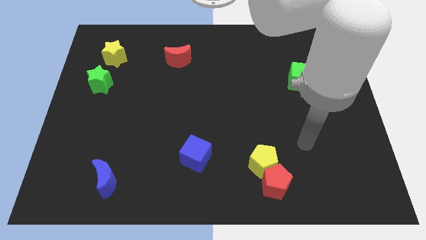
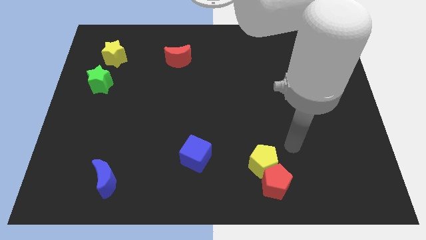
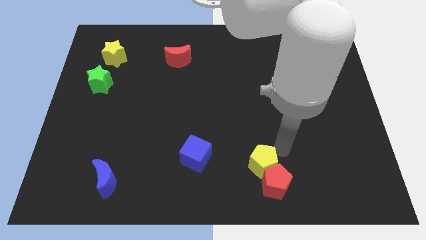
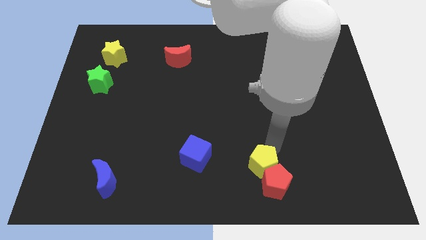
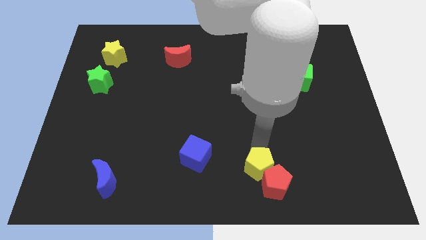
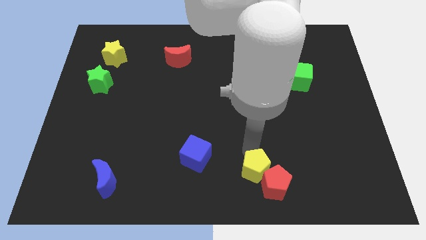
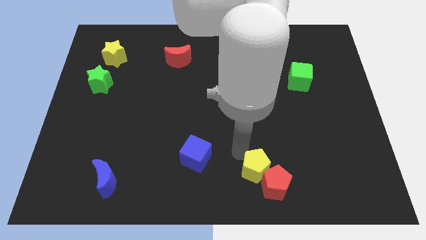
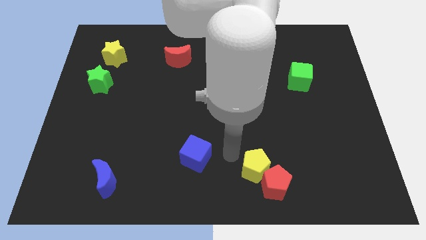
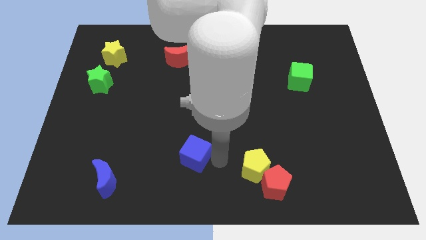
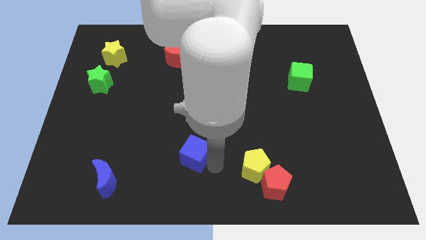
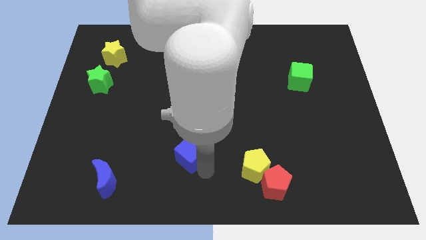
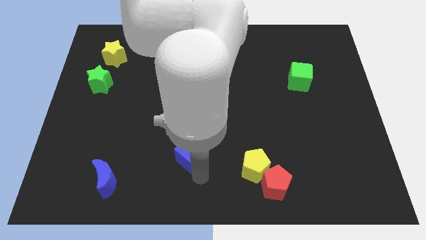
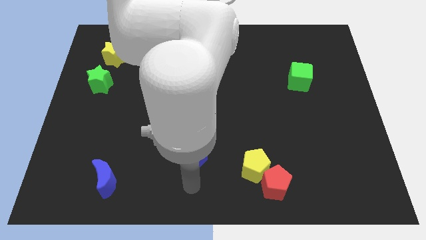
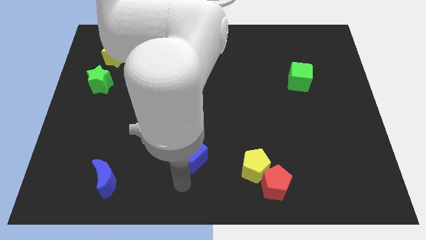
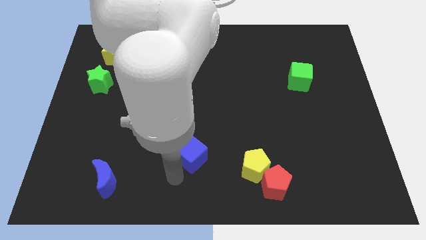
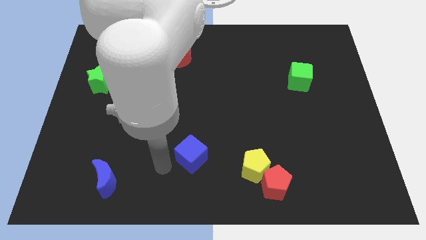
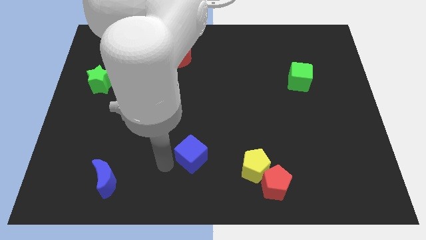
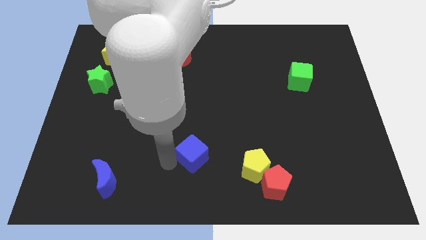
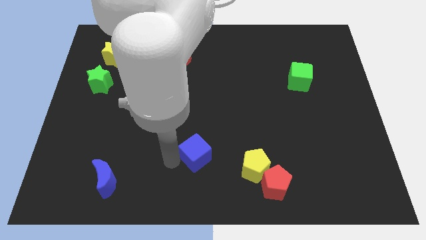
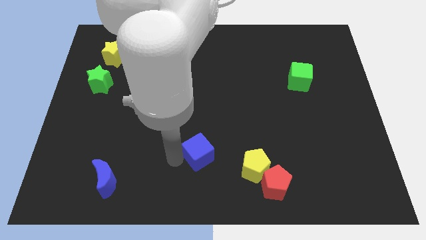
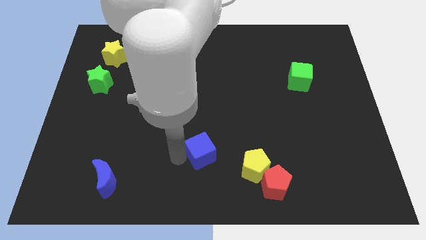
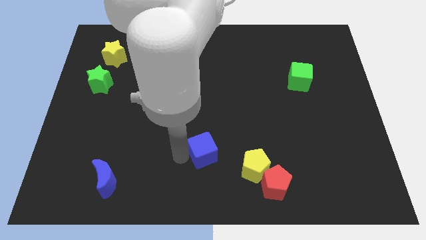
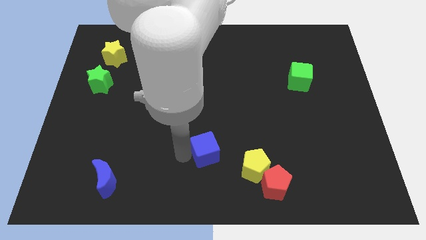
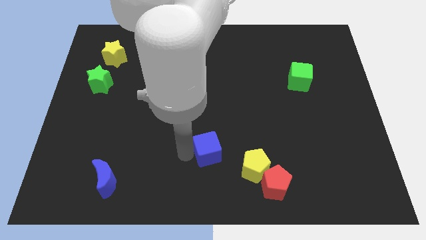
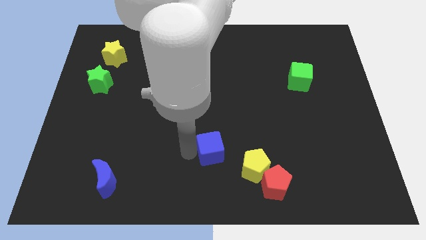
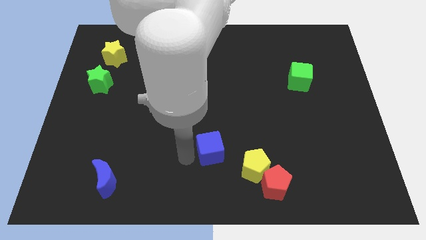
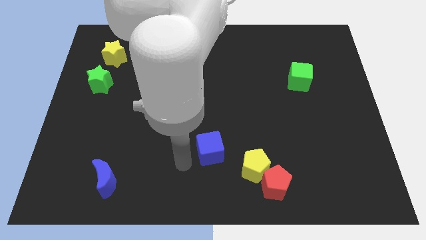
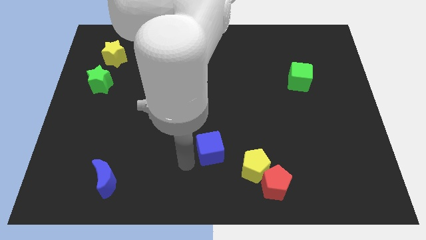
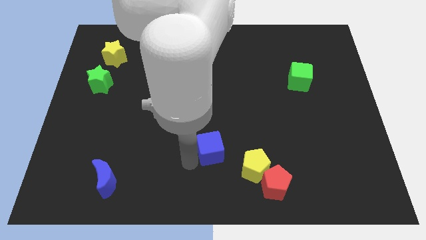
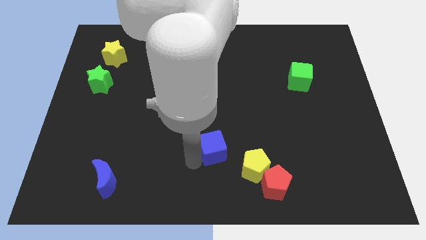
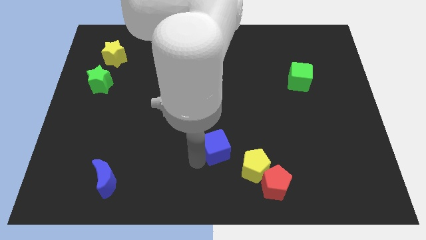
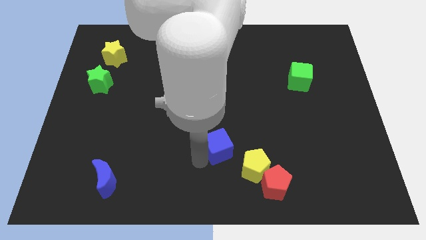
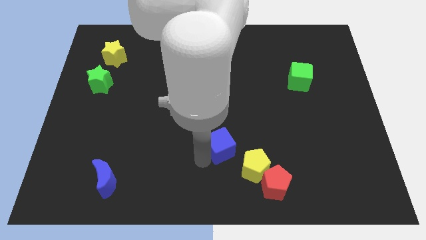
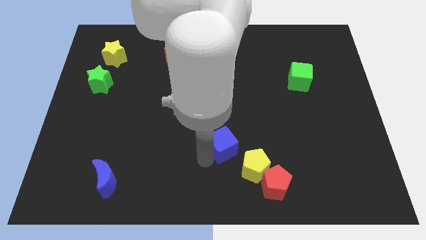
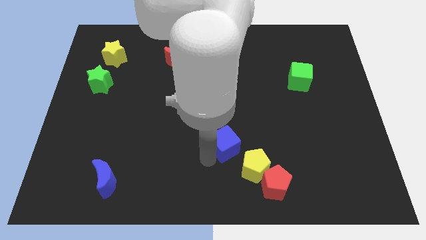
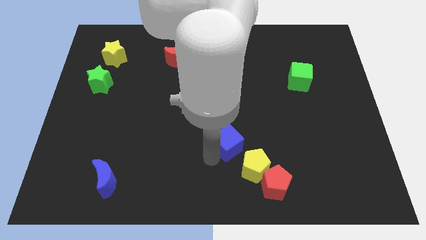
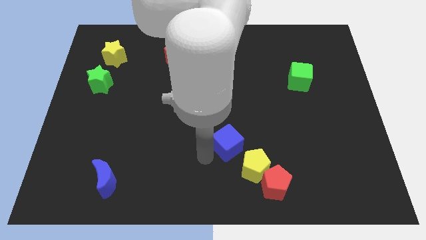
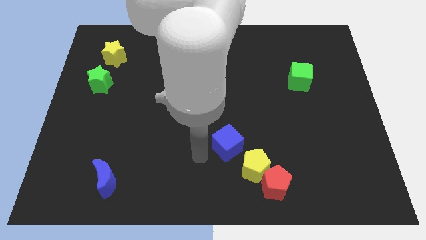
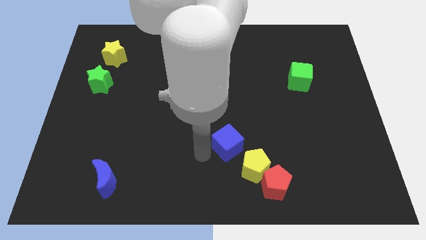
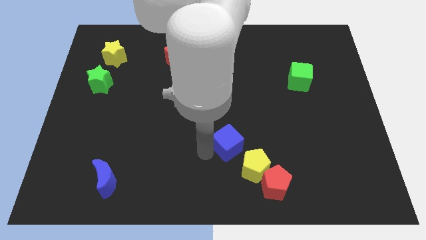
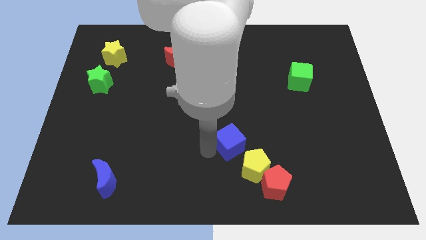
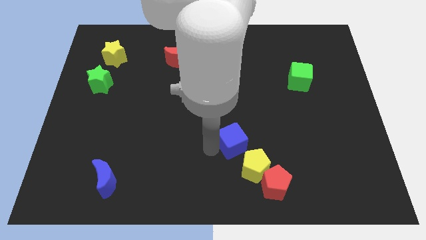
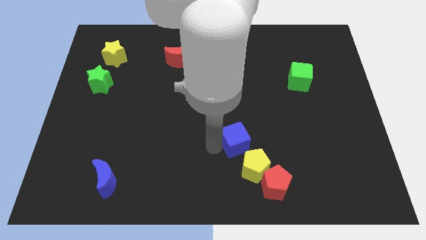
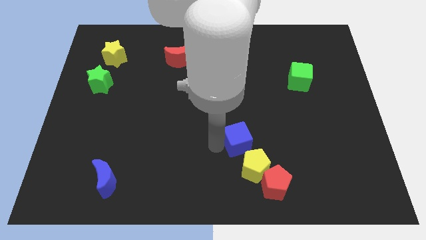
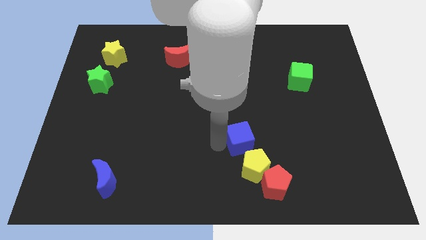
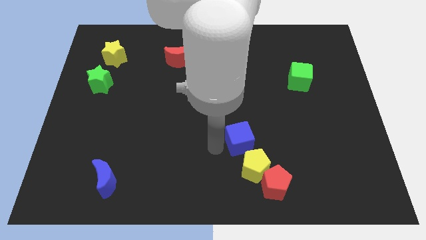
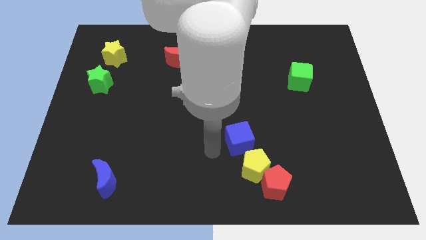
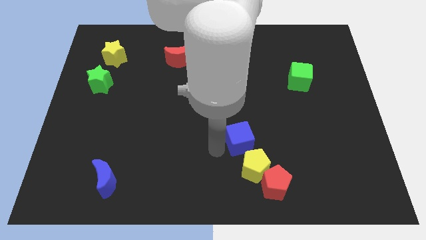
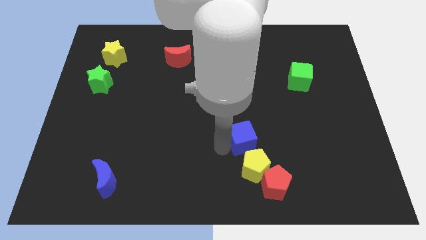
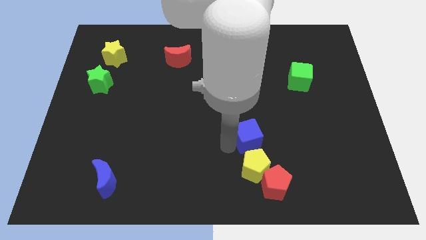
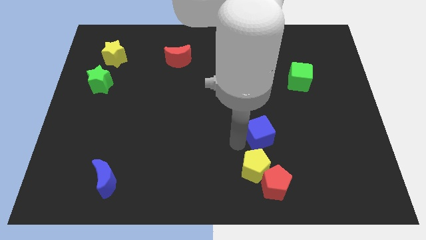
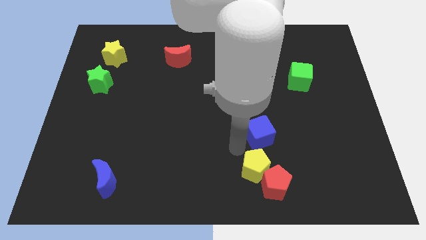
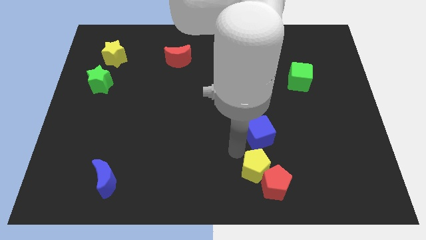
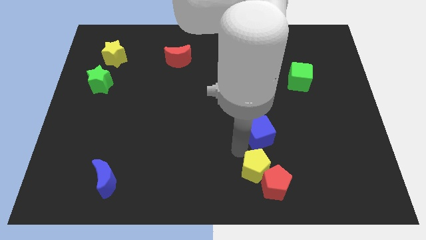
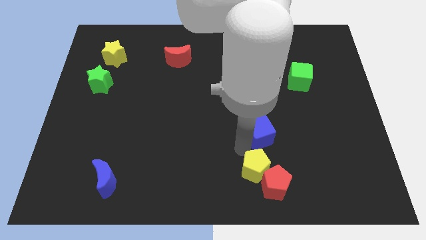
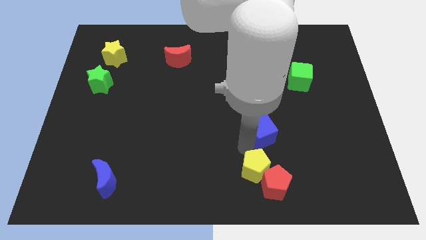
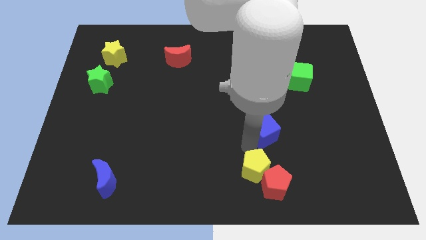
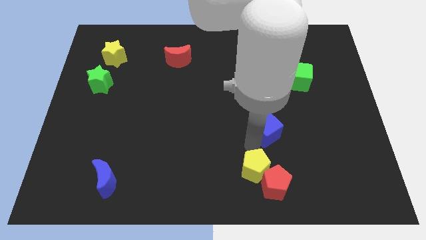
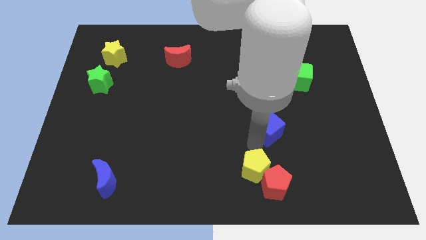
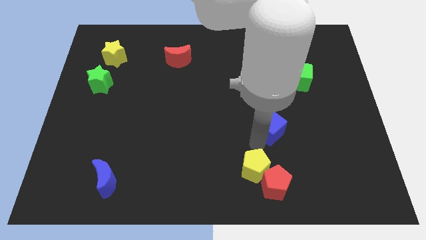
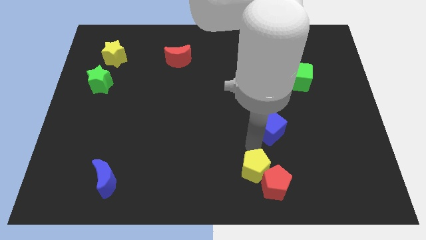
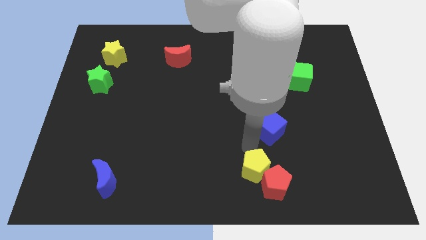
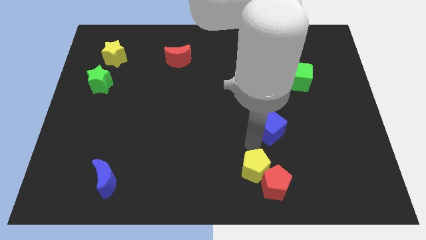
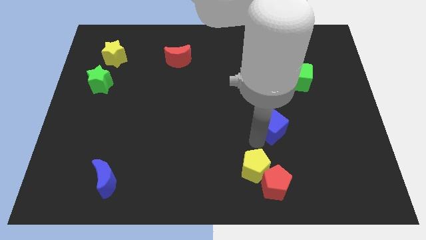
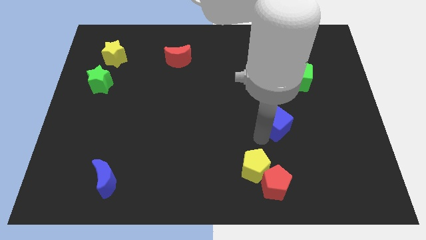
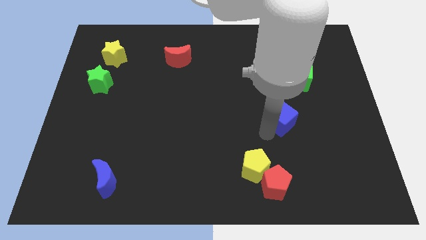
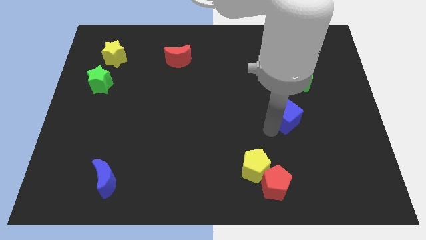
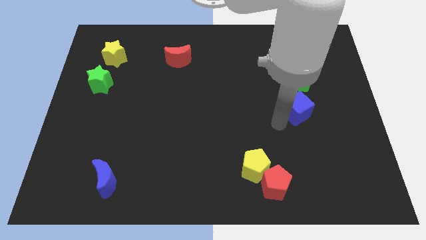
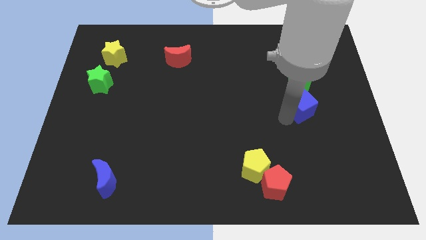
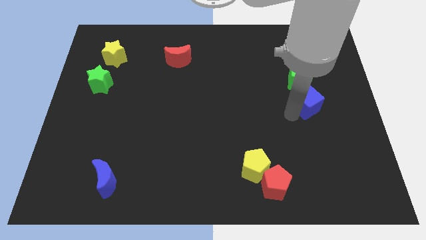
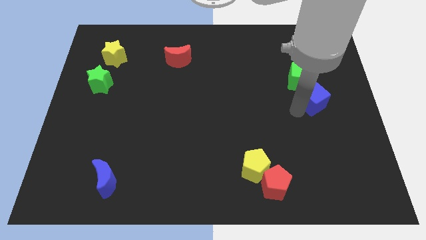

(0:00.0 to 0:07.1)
push the blue cube to the bottom right side of the green cube

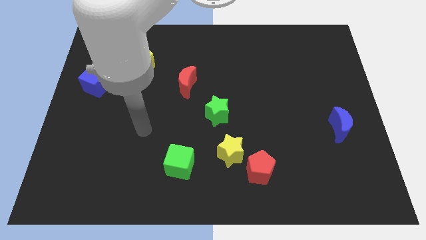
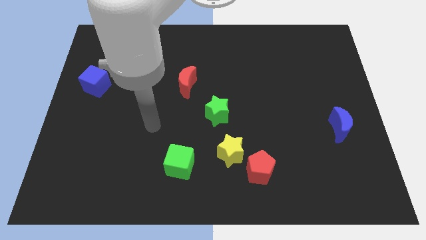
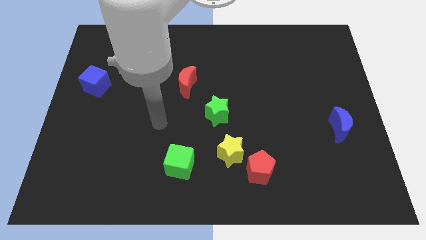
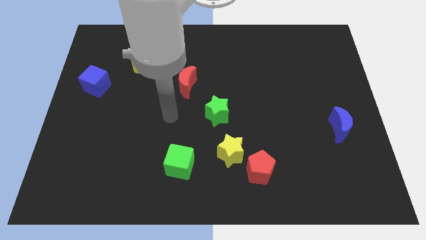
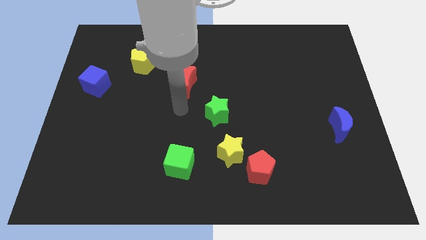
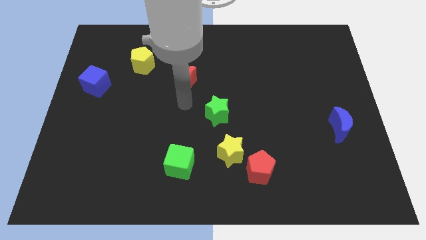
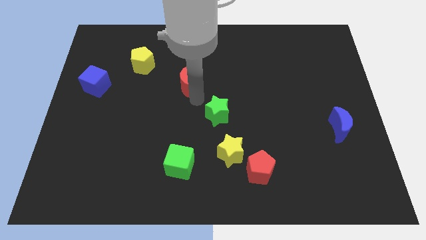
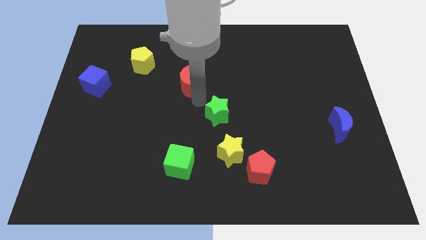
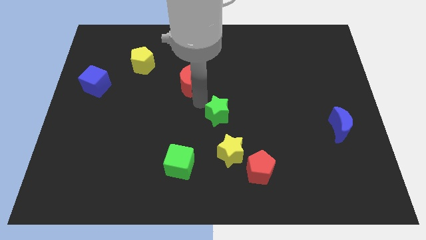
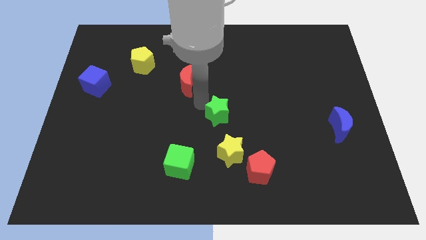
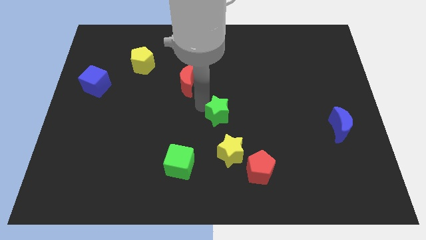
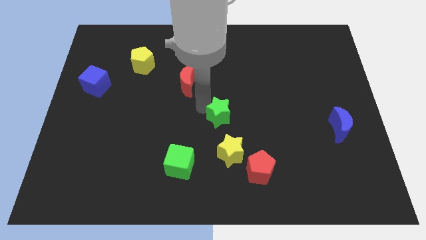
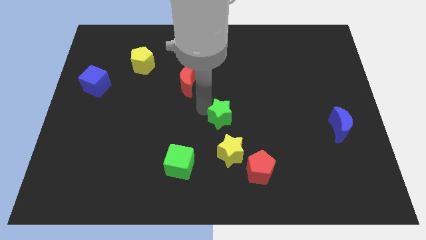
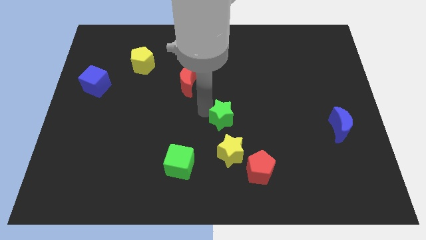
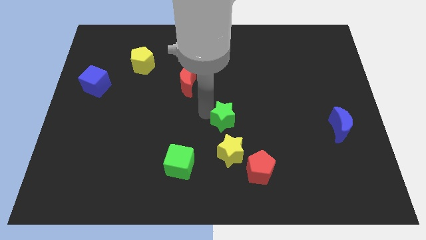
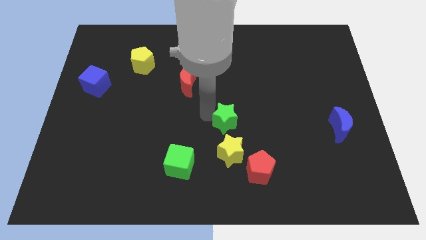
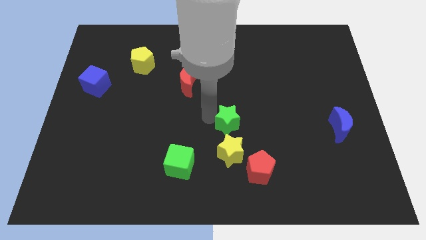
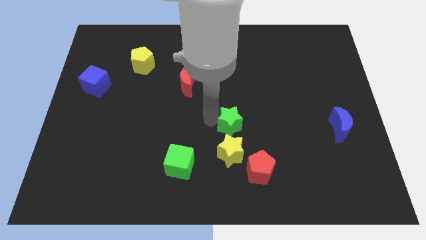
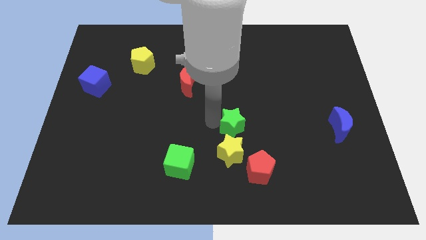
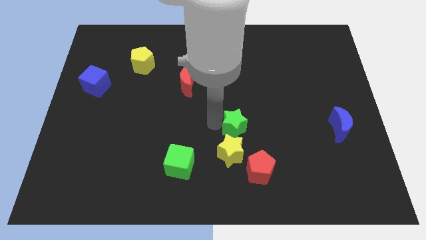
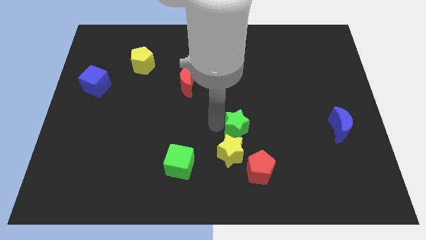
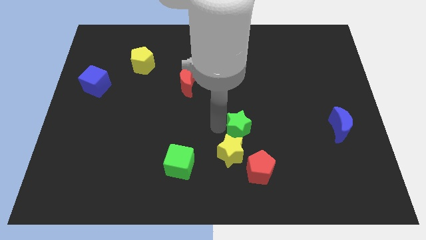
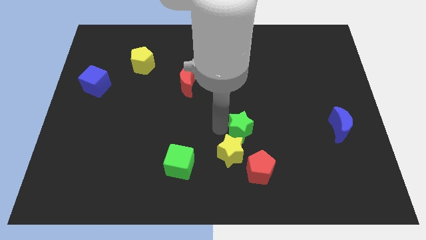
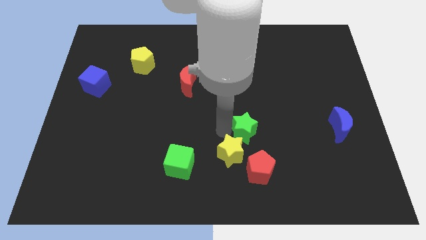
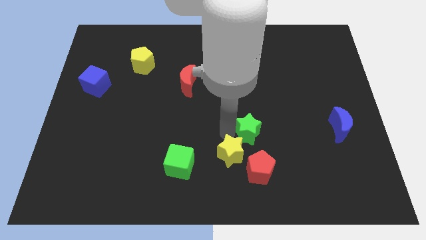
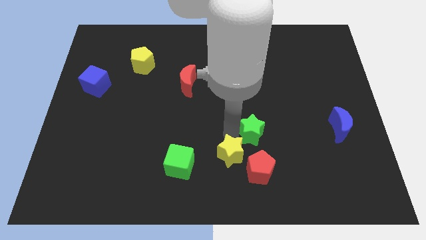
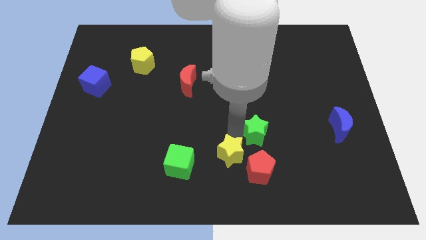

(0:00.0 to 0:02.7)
slide the green star just right of the yellow star
